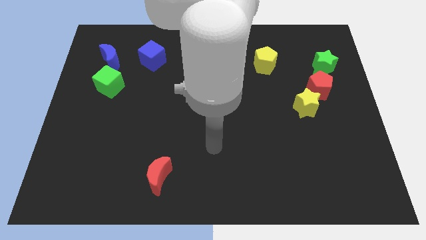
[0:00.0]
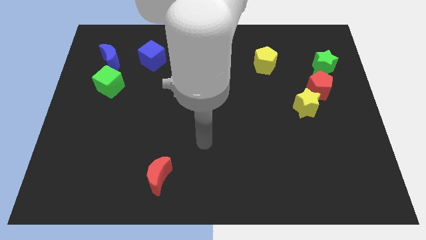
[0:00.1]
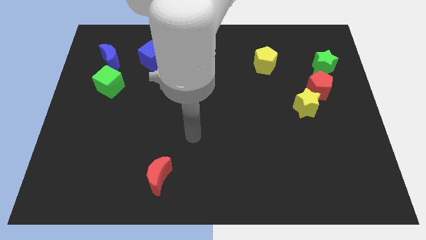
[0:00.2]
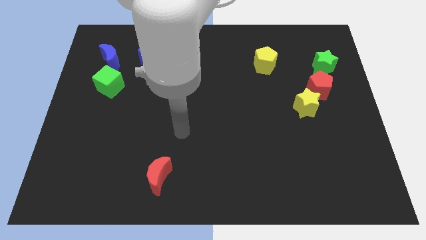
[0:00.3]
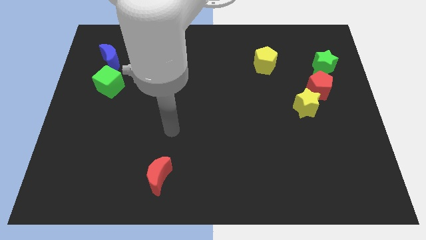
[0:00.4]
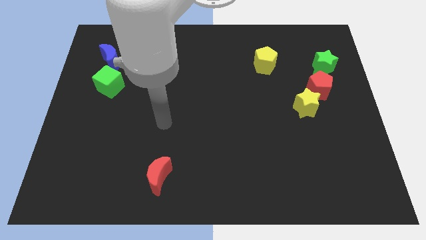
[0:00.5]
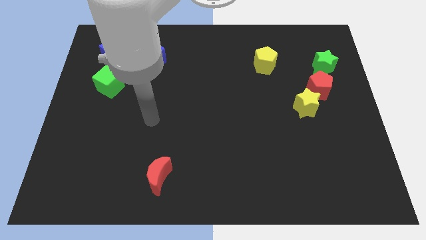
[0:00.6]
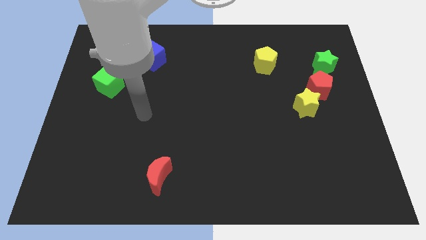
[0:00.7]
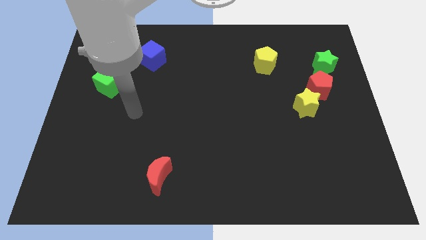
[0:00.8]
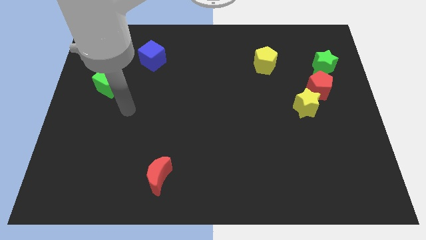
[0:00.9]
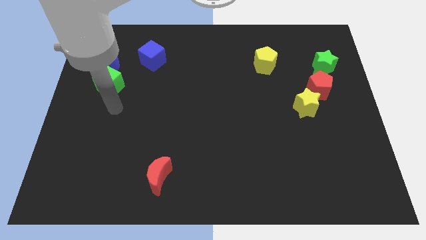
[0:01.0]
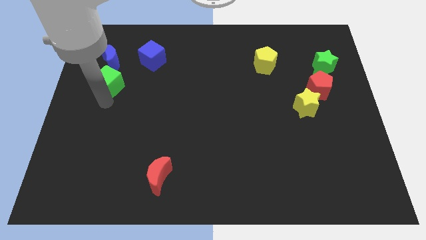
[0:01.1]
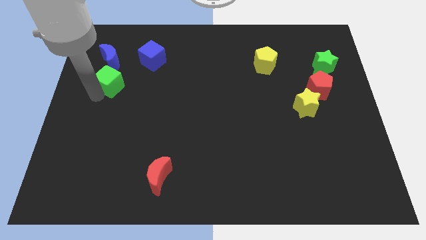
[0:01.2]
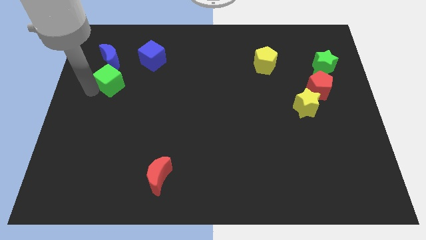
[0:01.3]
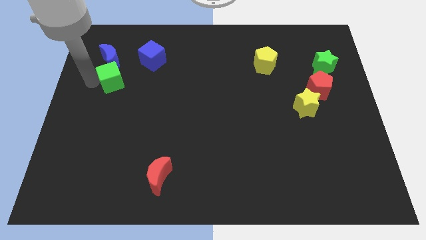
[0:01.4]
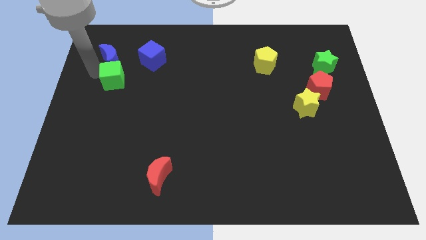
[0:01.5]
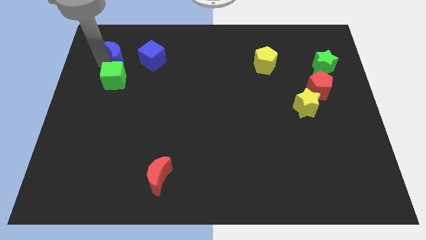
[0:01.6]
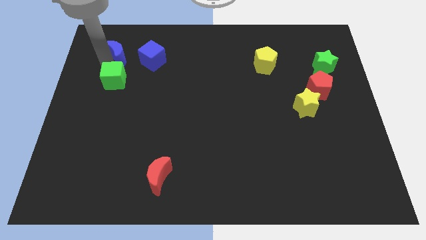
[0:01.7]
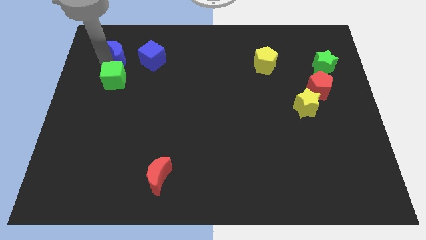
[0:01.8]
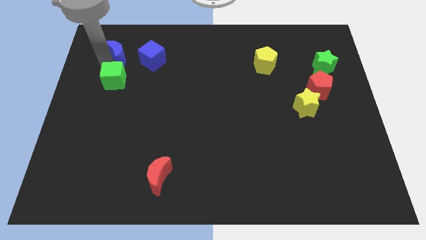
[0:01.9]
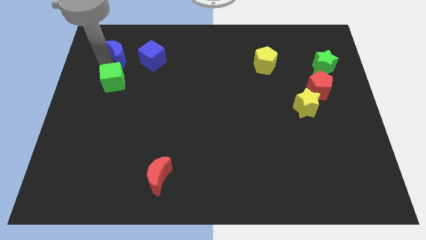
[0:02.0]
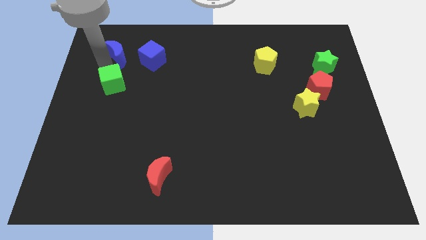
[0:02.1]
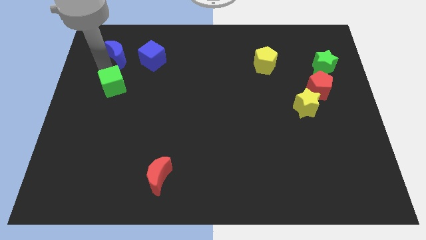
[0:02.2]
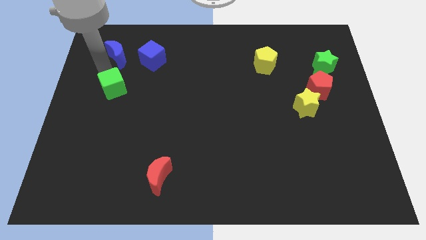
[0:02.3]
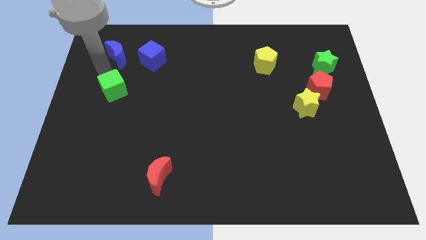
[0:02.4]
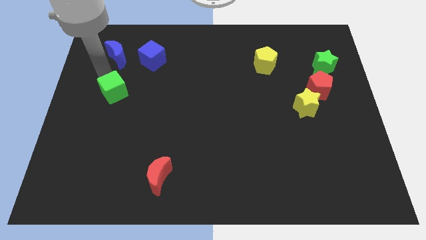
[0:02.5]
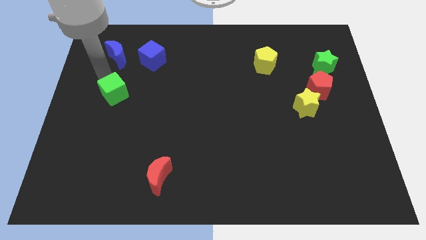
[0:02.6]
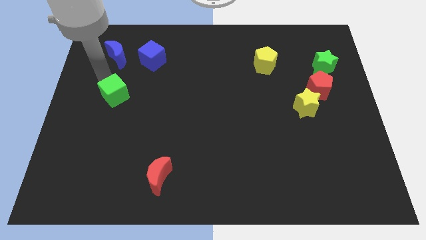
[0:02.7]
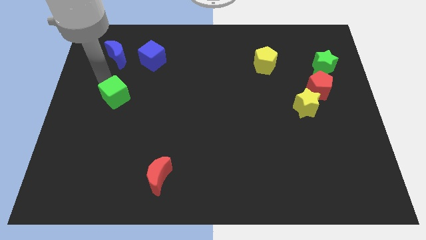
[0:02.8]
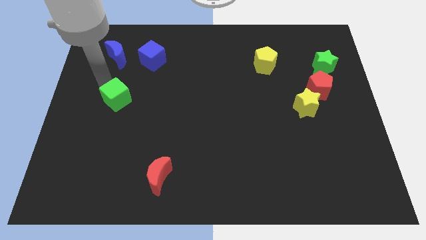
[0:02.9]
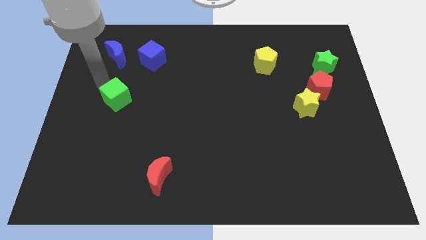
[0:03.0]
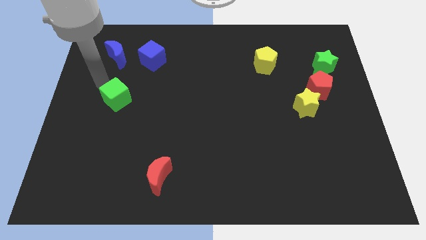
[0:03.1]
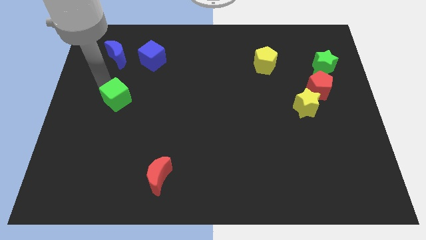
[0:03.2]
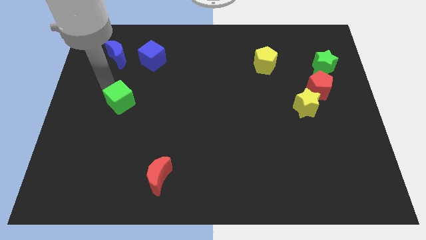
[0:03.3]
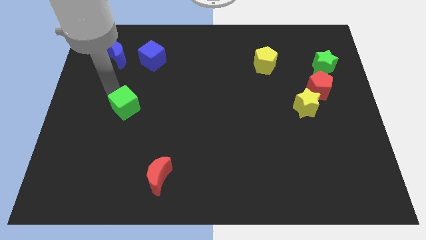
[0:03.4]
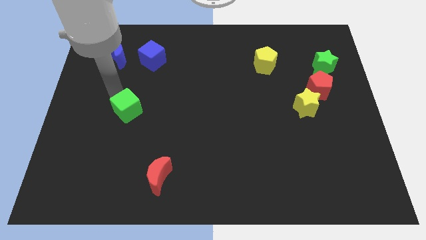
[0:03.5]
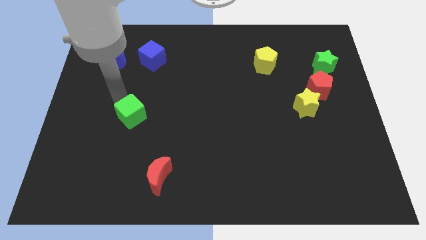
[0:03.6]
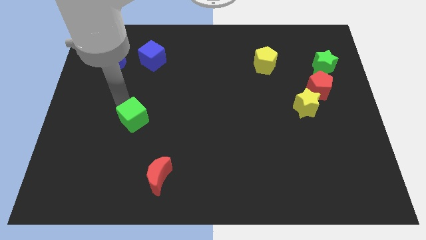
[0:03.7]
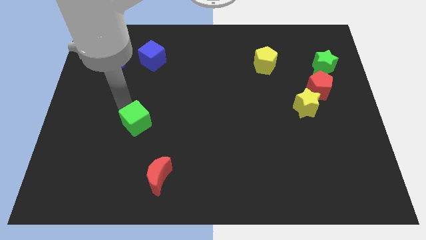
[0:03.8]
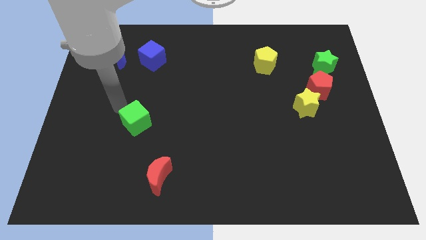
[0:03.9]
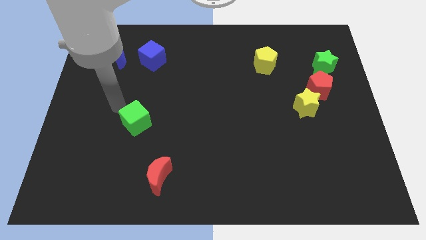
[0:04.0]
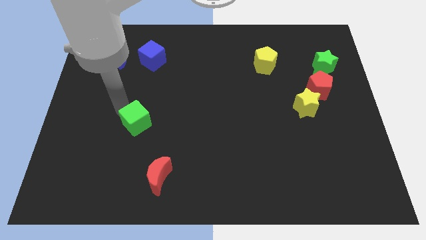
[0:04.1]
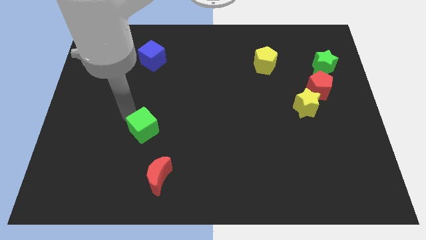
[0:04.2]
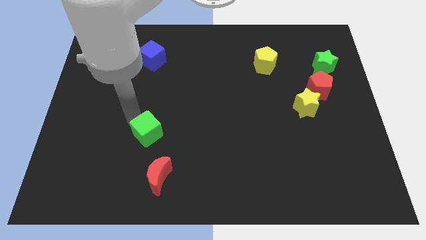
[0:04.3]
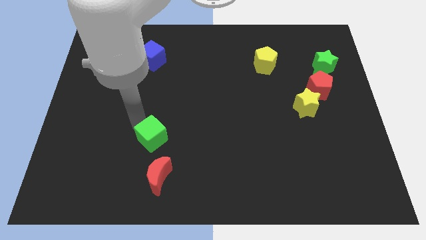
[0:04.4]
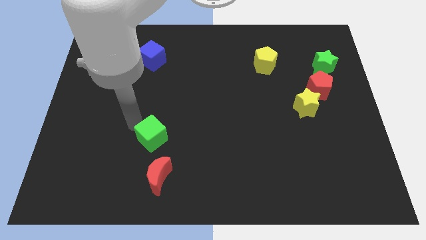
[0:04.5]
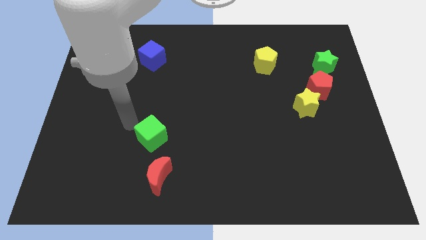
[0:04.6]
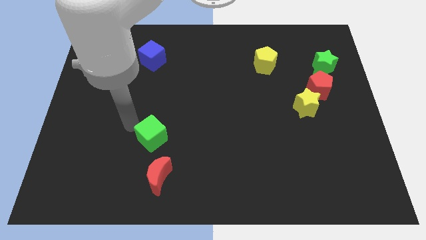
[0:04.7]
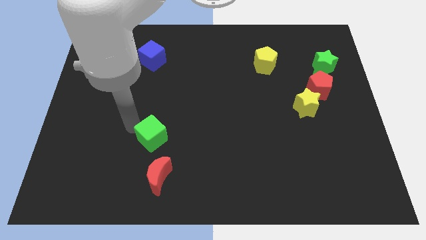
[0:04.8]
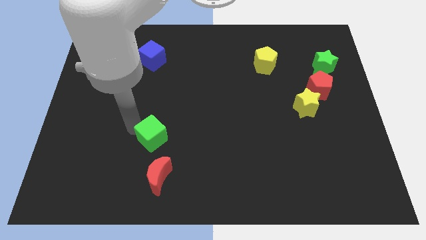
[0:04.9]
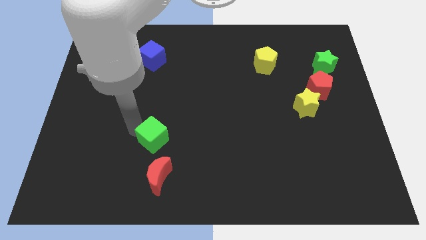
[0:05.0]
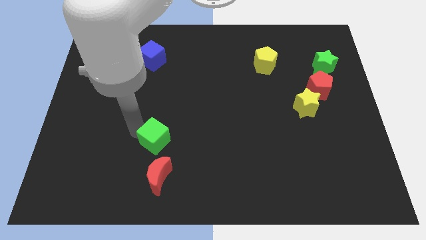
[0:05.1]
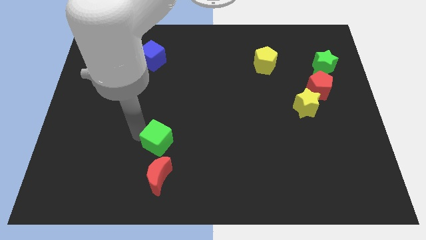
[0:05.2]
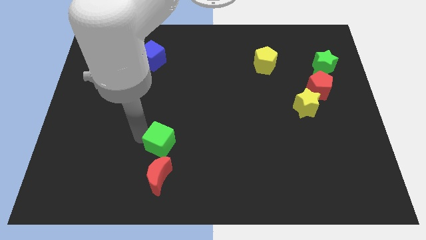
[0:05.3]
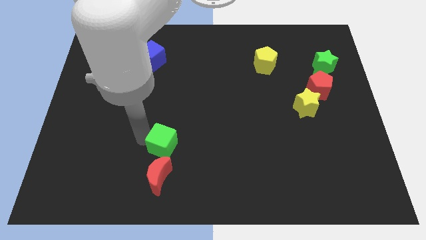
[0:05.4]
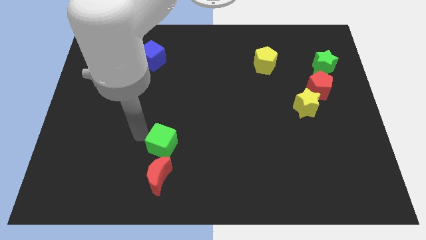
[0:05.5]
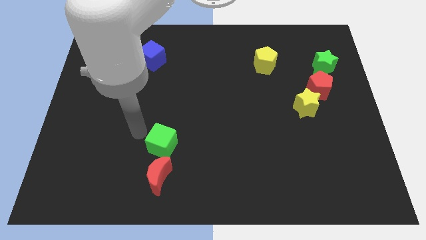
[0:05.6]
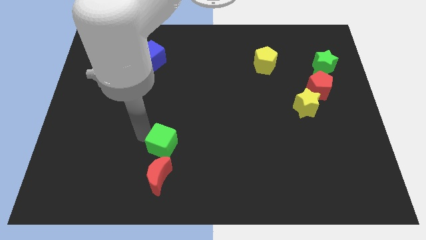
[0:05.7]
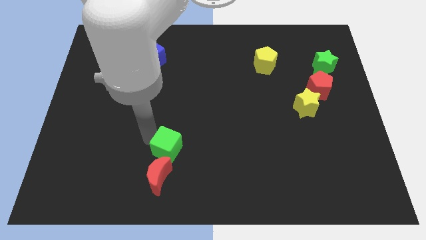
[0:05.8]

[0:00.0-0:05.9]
slide the green cube diagonally up and to the right of the red moon

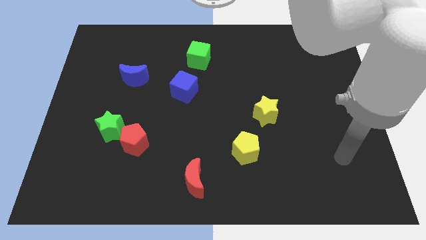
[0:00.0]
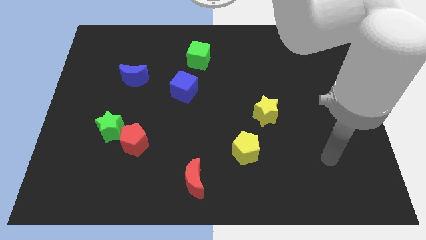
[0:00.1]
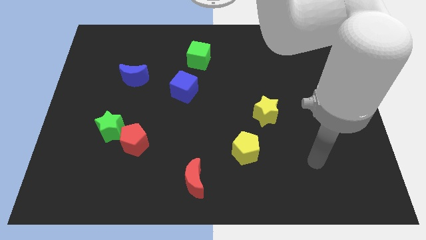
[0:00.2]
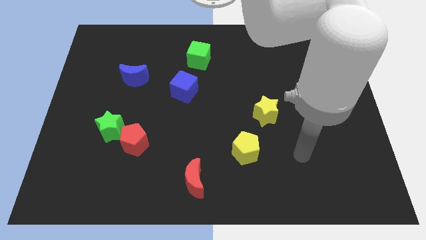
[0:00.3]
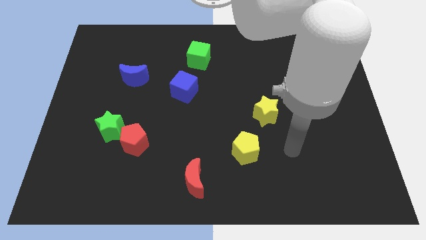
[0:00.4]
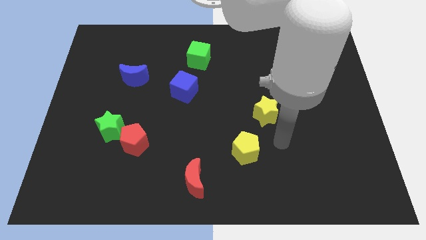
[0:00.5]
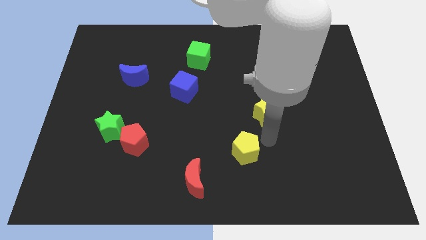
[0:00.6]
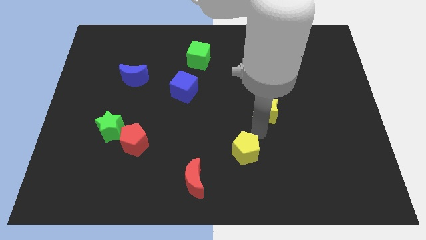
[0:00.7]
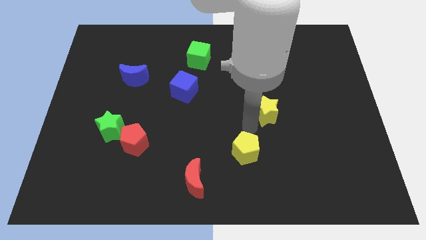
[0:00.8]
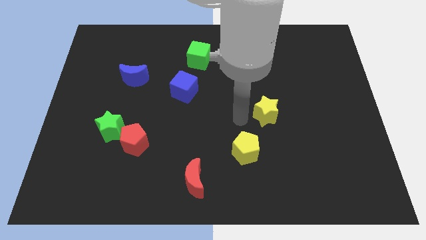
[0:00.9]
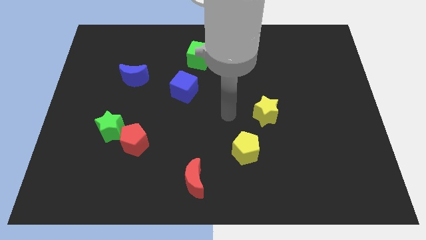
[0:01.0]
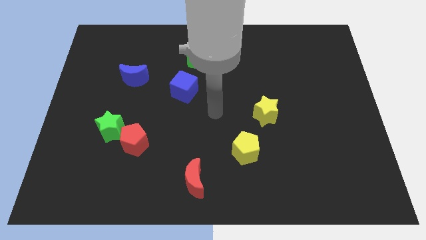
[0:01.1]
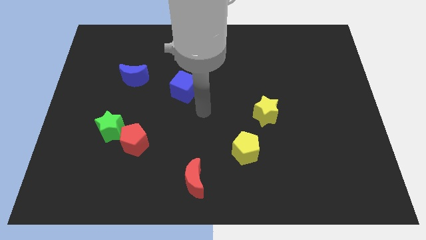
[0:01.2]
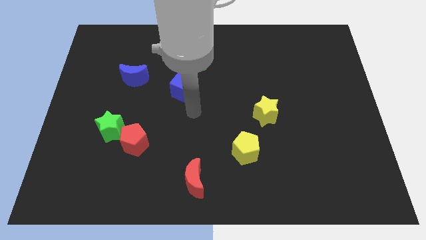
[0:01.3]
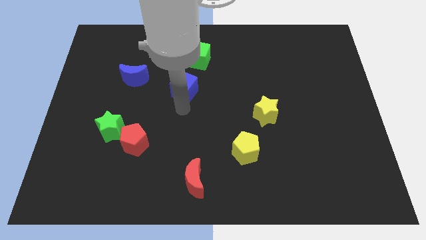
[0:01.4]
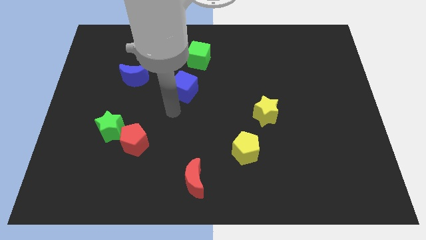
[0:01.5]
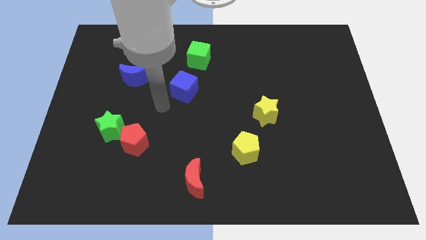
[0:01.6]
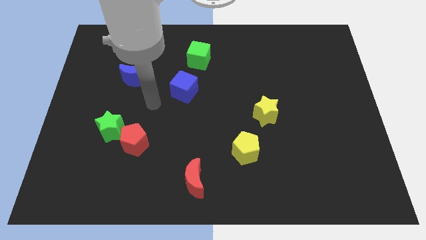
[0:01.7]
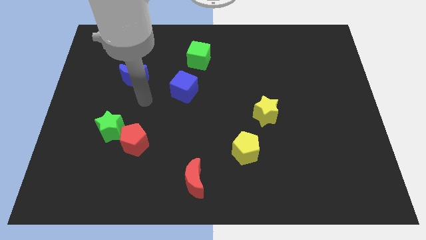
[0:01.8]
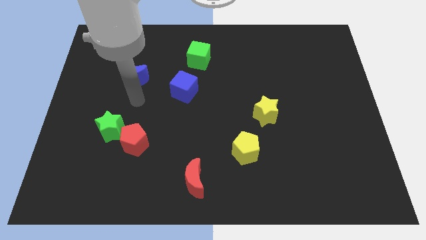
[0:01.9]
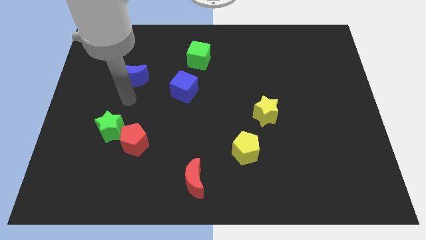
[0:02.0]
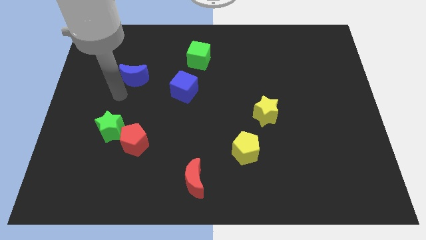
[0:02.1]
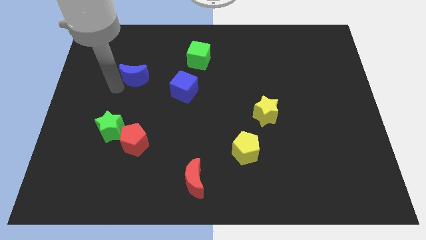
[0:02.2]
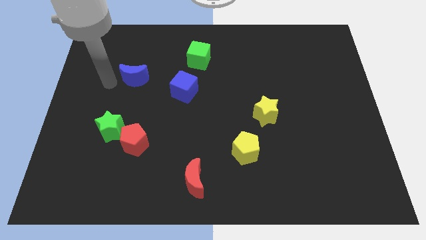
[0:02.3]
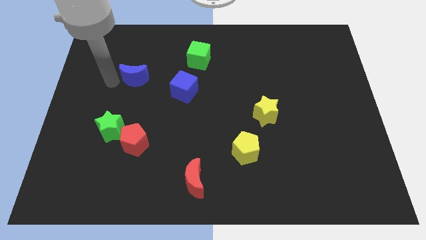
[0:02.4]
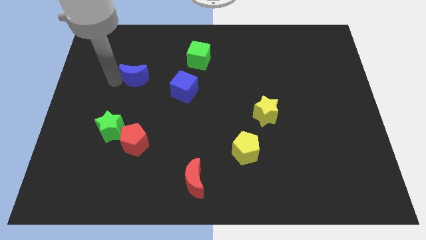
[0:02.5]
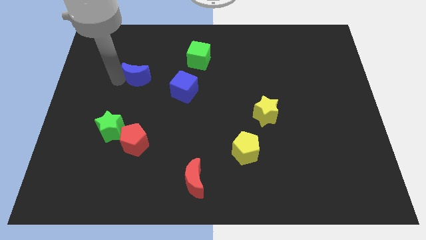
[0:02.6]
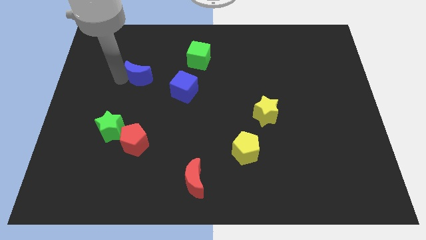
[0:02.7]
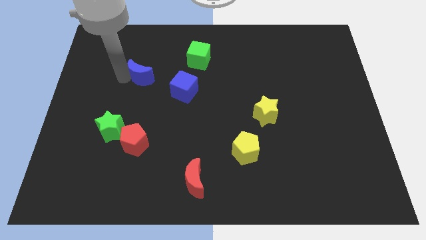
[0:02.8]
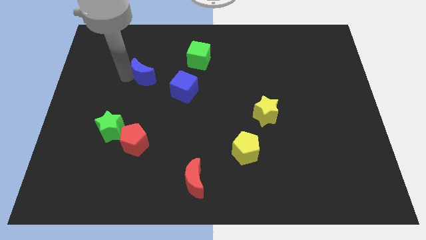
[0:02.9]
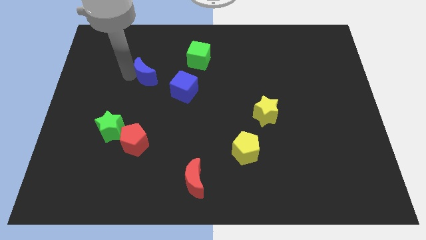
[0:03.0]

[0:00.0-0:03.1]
slide the blue moon diagonally up and to the left of the blue cube
